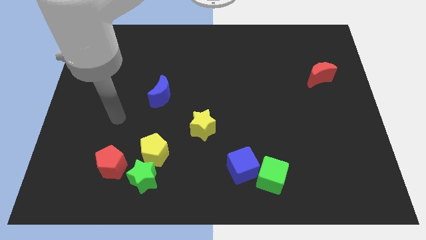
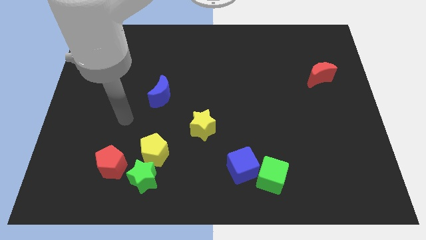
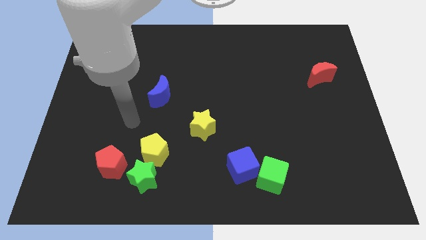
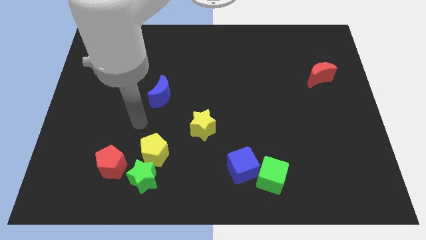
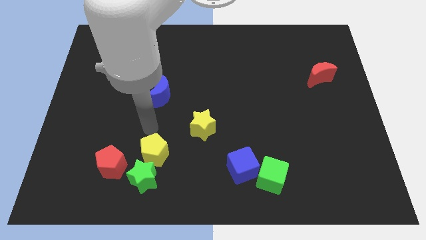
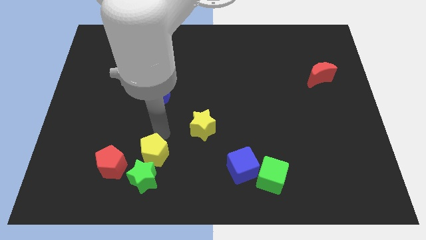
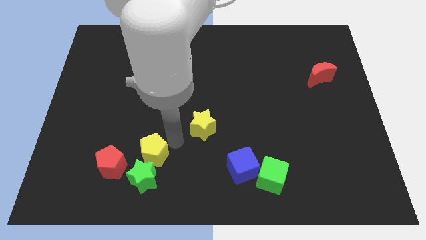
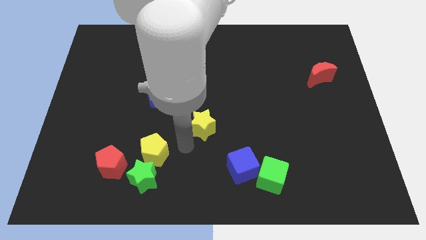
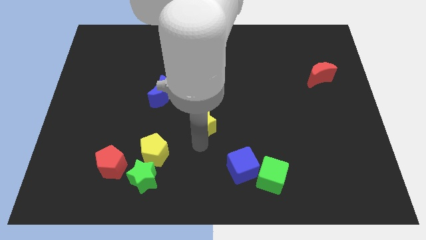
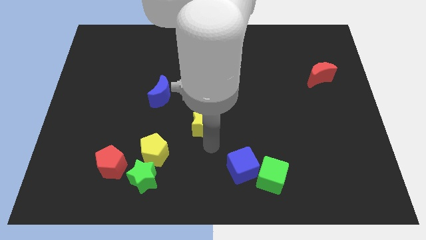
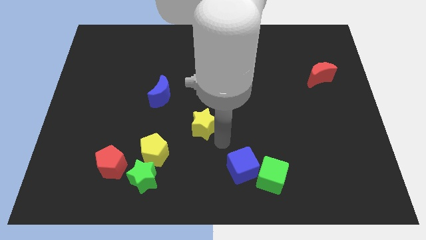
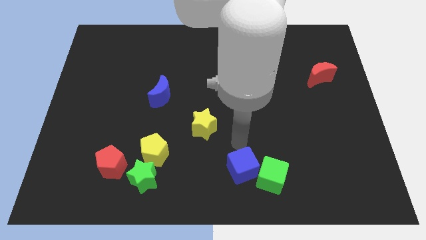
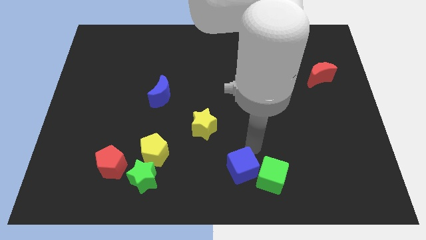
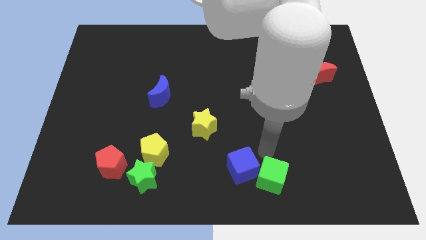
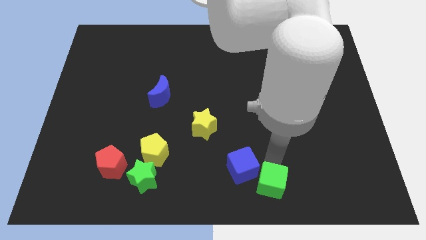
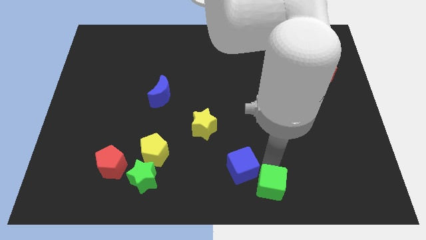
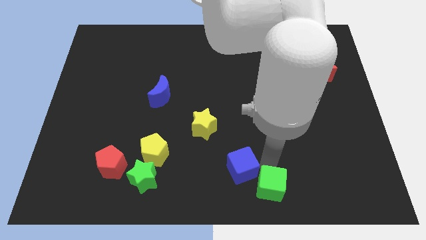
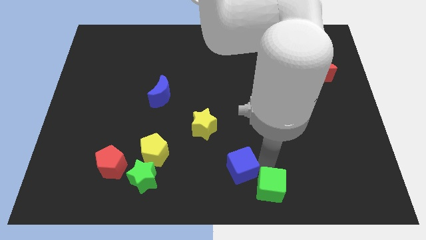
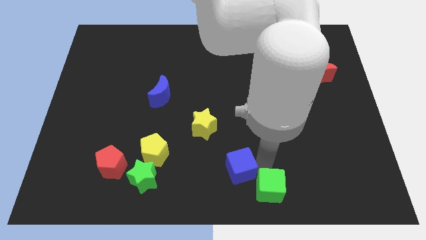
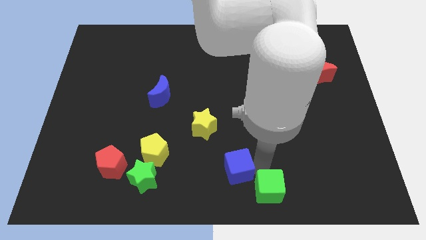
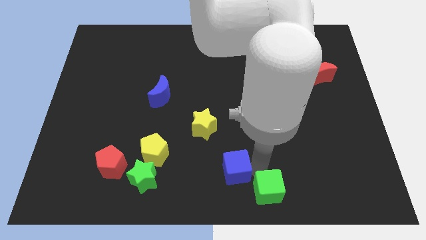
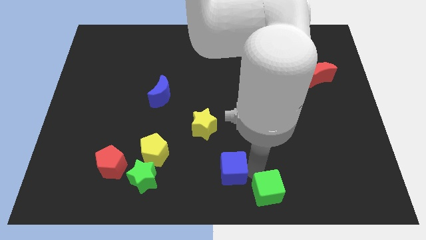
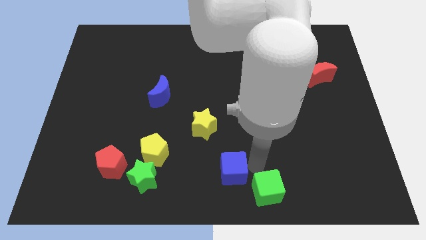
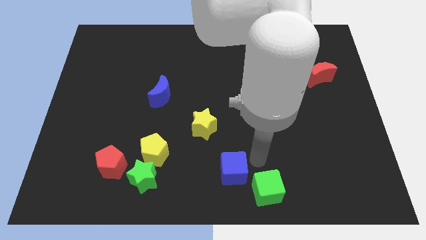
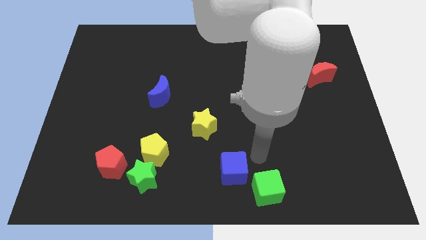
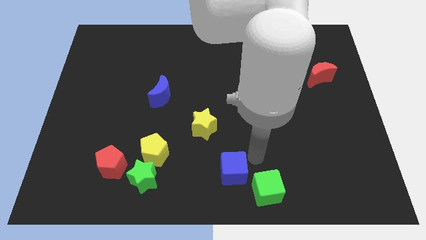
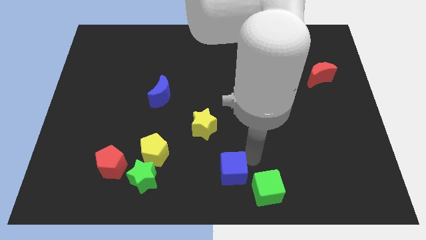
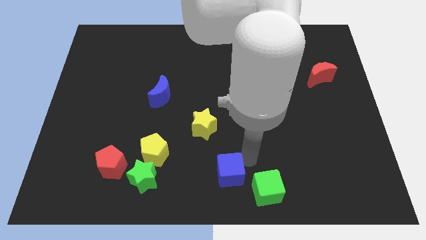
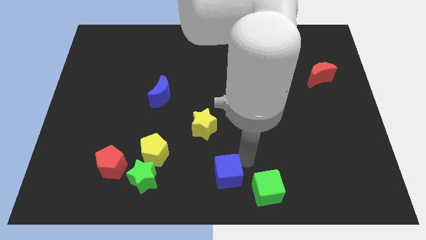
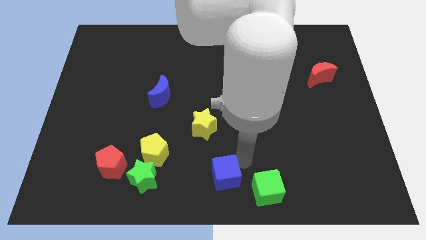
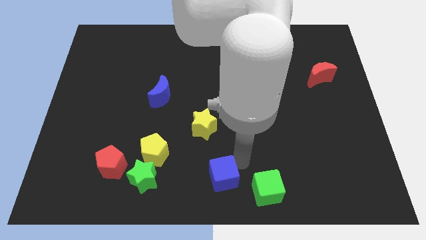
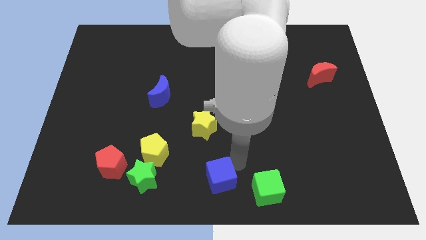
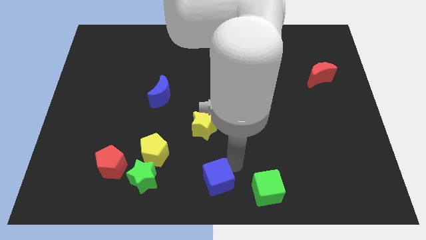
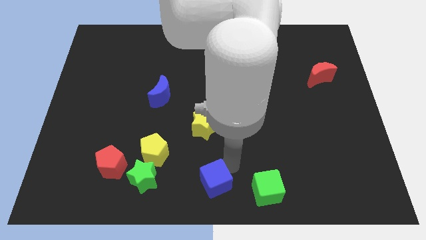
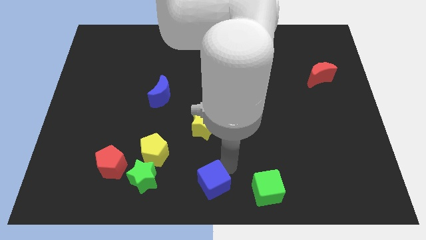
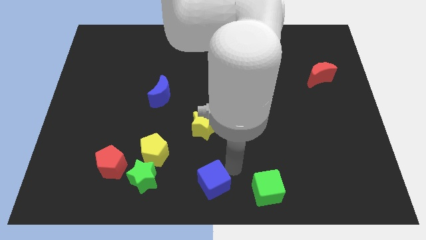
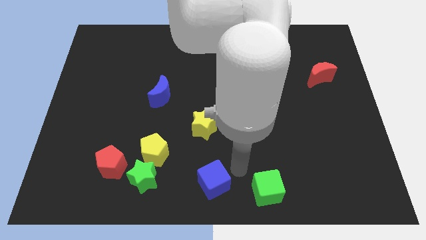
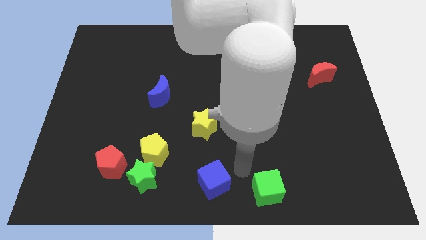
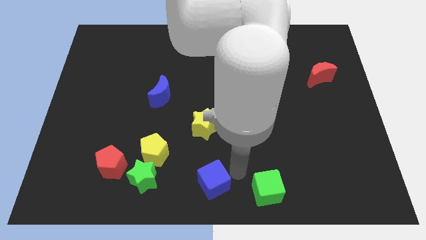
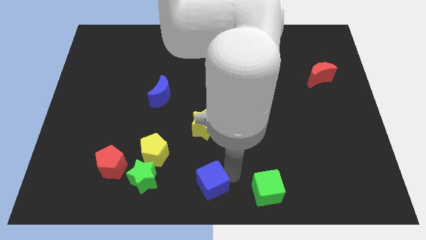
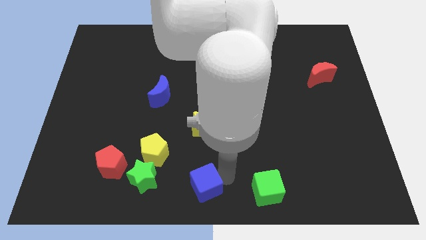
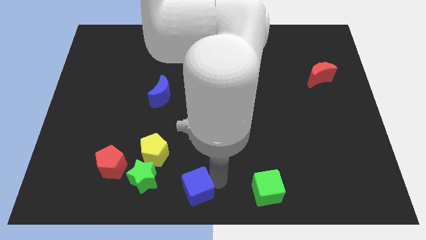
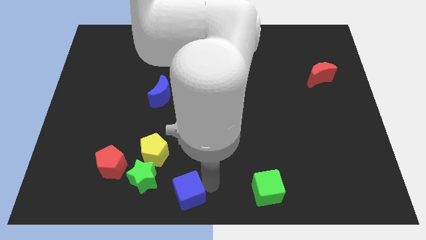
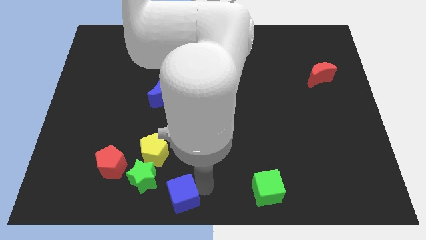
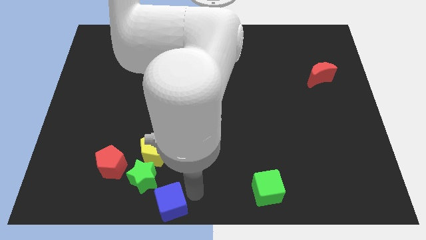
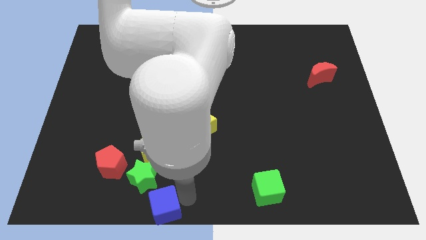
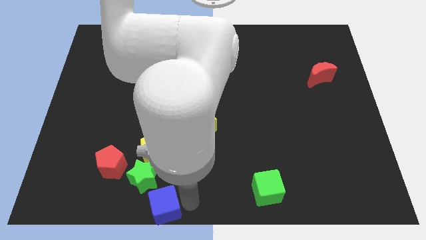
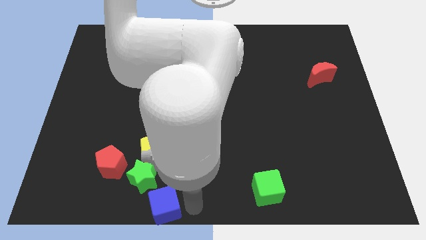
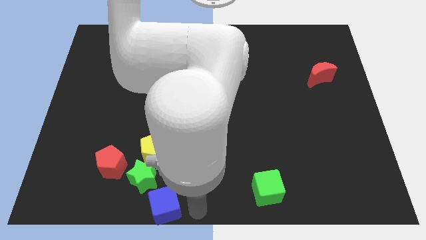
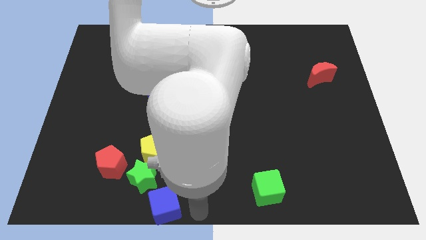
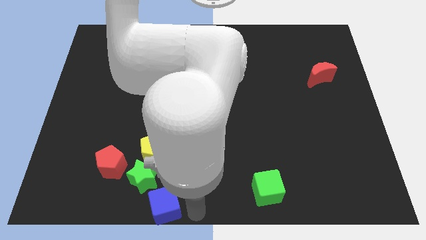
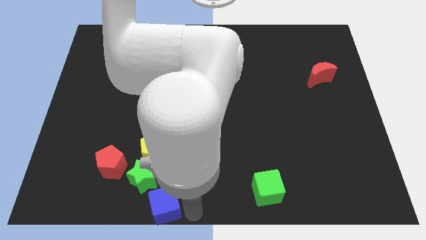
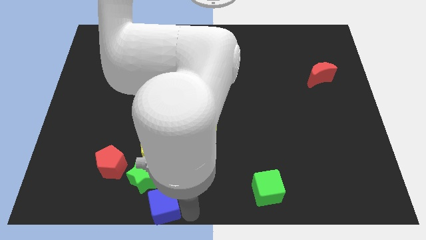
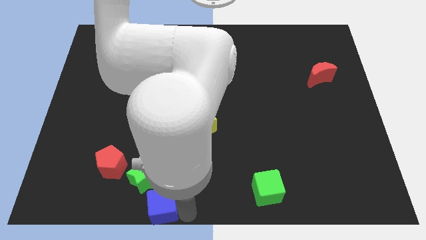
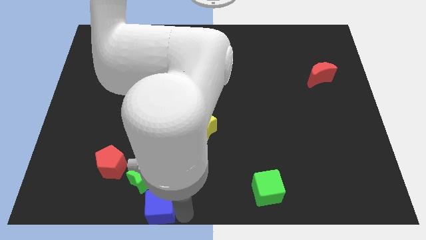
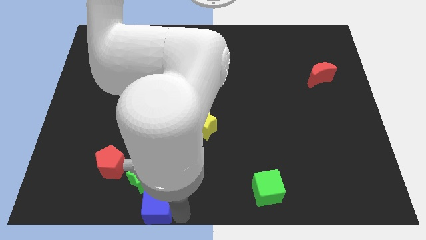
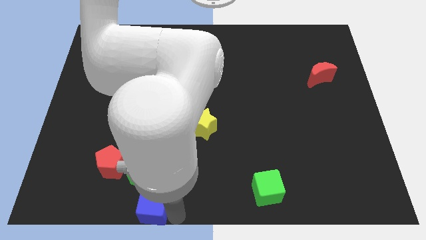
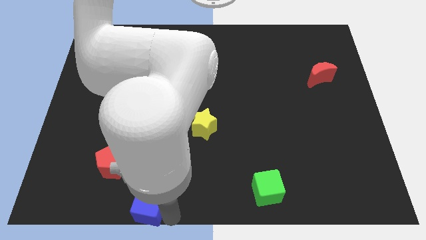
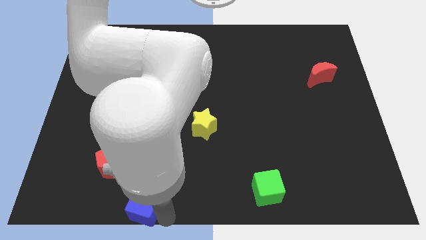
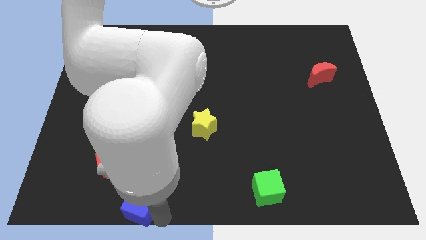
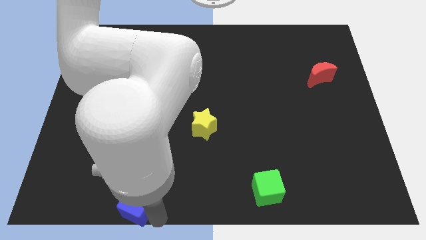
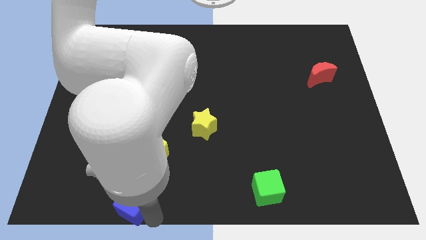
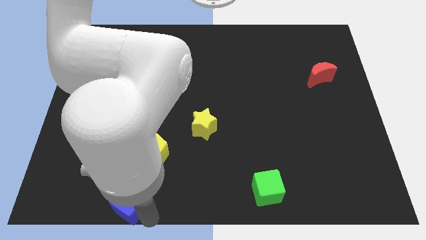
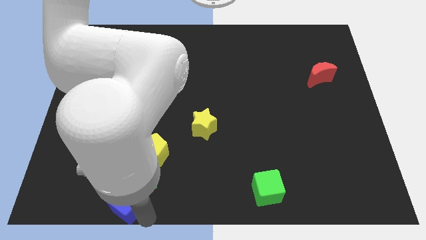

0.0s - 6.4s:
slide the blue cube left

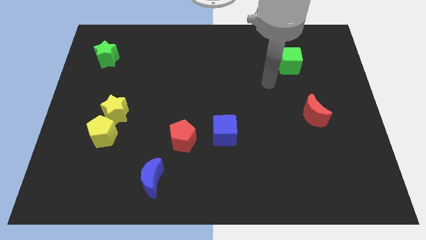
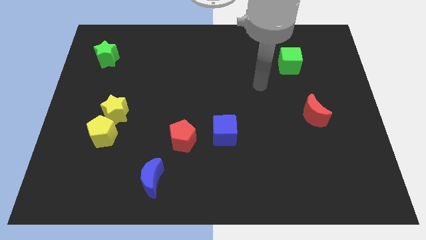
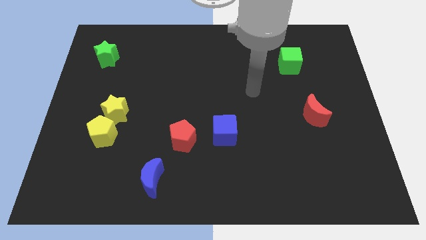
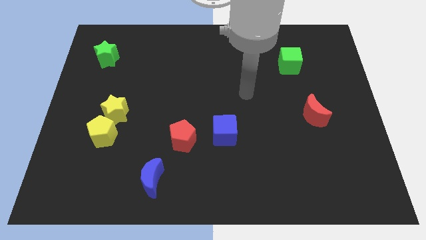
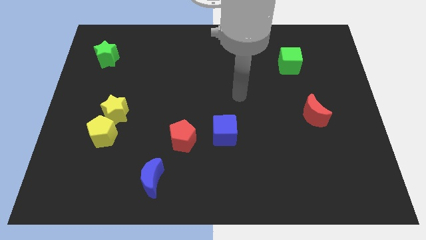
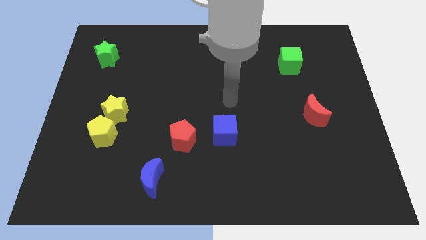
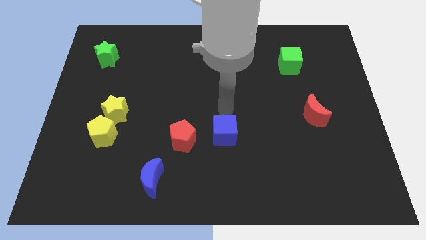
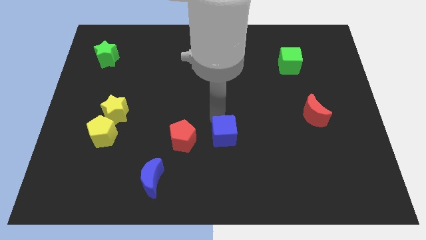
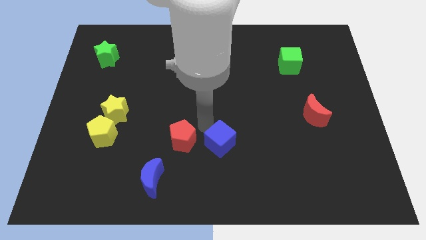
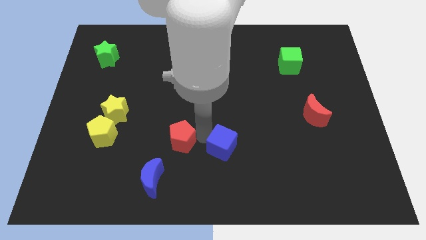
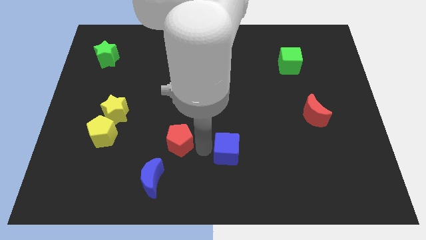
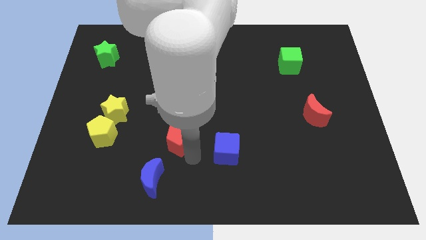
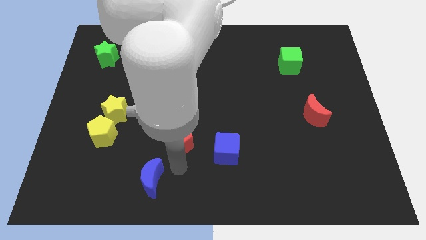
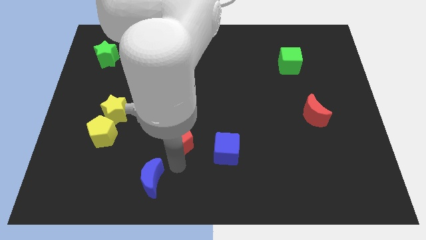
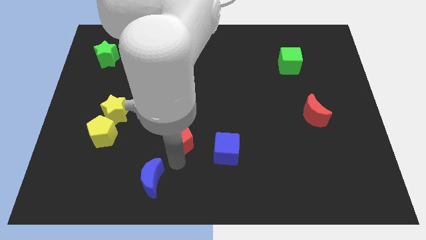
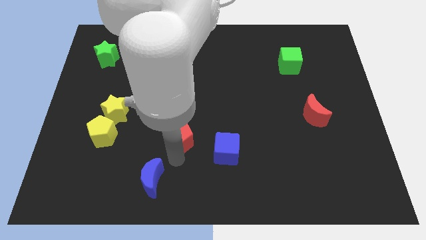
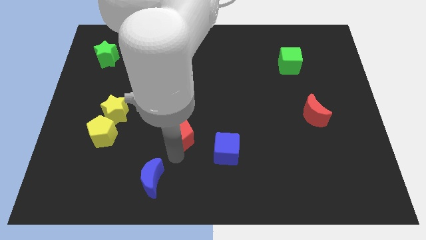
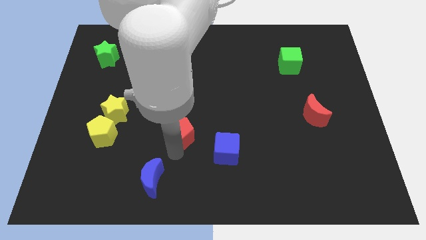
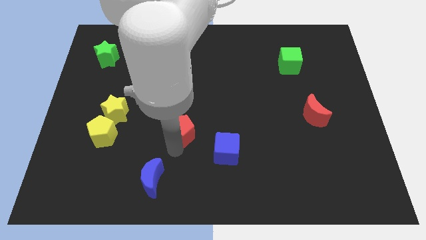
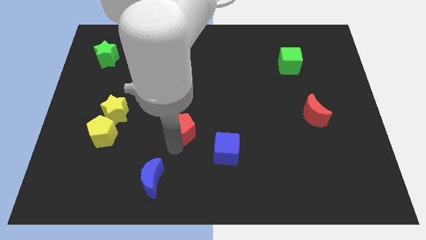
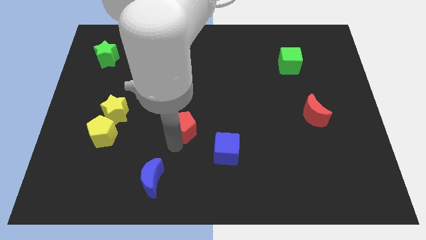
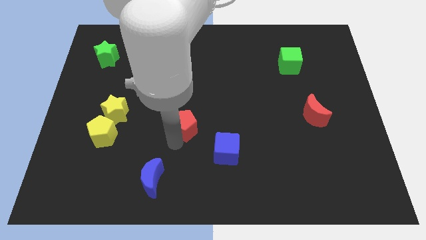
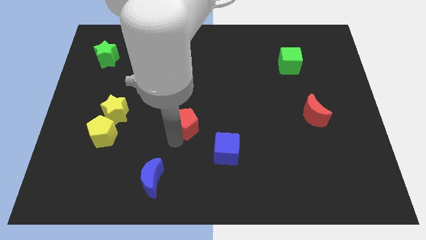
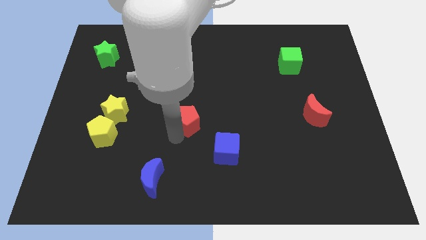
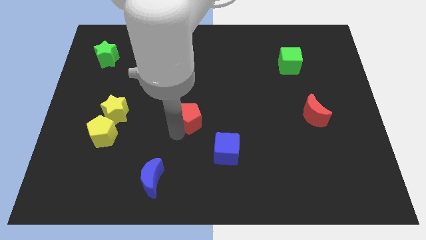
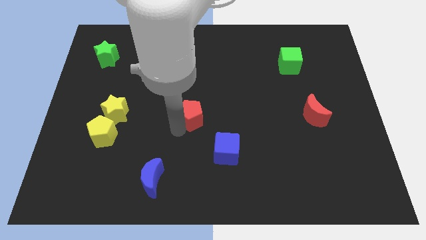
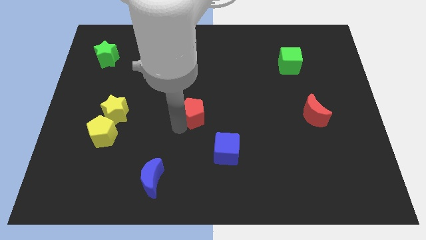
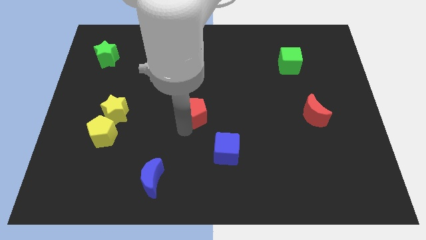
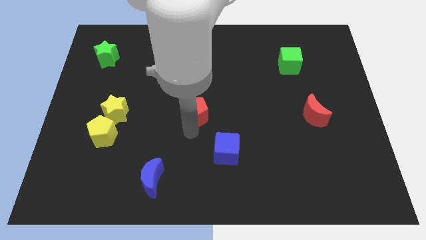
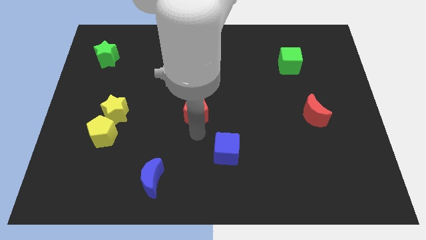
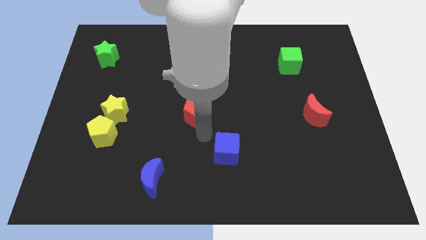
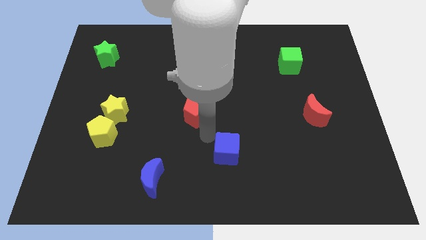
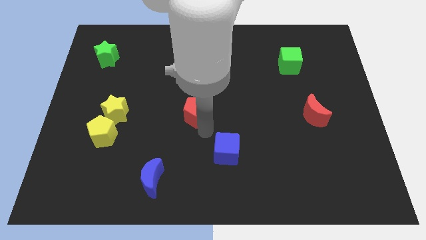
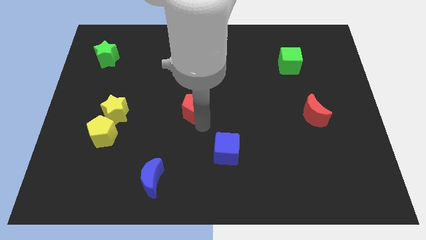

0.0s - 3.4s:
slide the red pentagon a bit upwards
